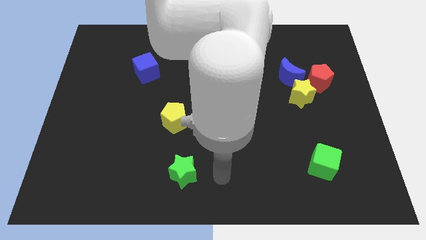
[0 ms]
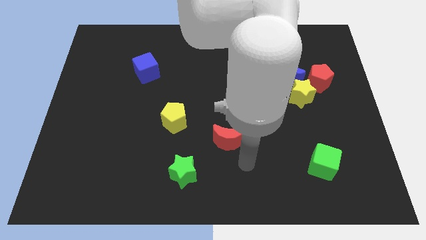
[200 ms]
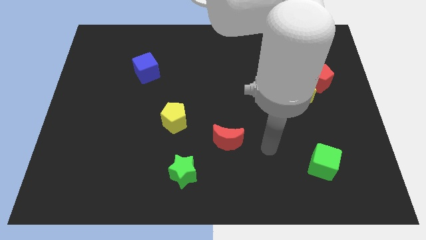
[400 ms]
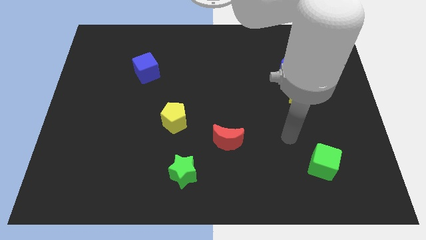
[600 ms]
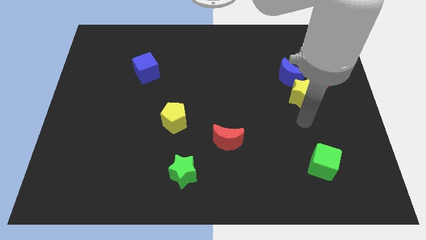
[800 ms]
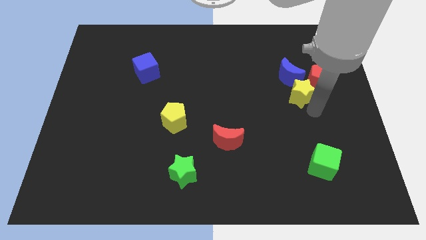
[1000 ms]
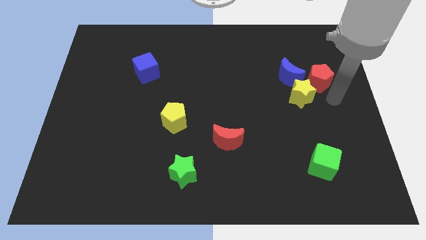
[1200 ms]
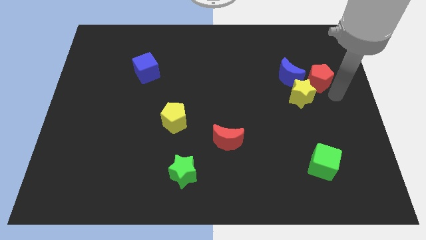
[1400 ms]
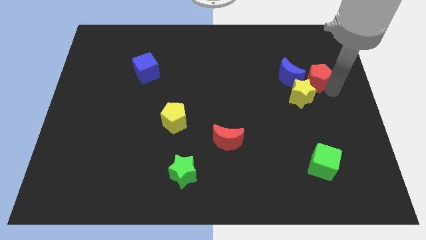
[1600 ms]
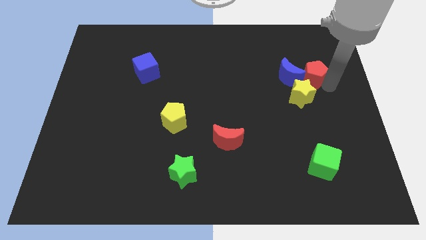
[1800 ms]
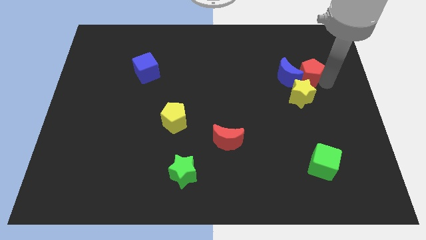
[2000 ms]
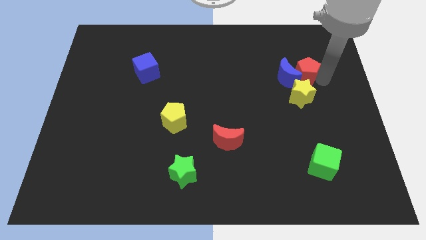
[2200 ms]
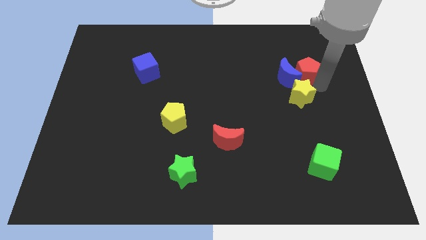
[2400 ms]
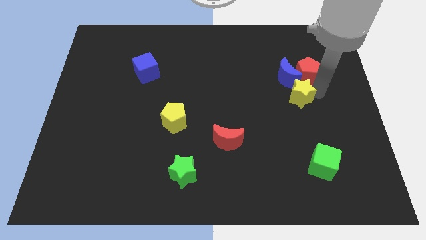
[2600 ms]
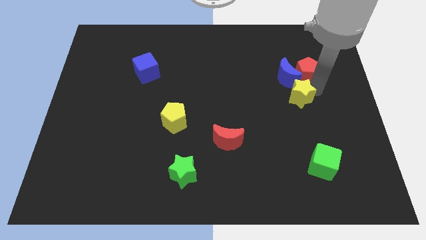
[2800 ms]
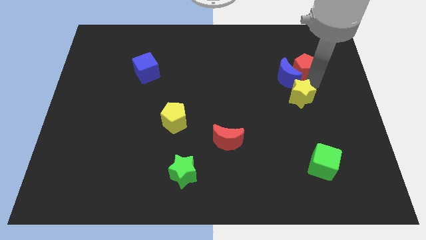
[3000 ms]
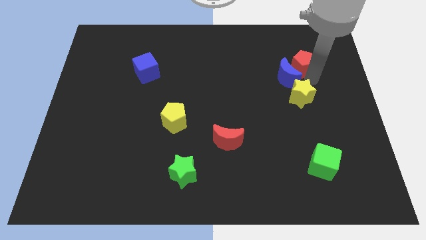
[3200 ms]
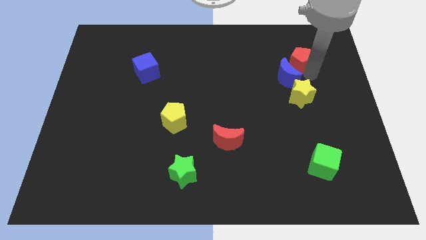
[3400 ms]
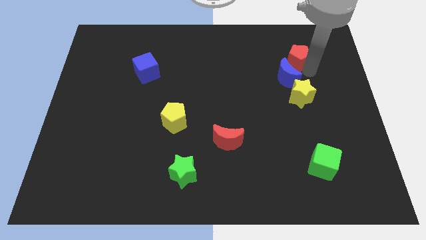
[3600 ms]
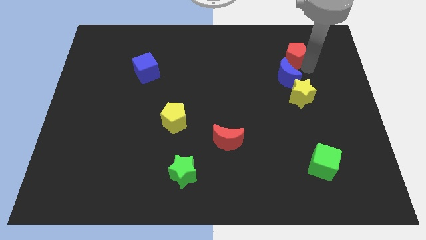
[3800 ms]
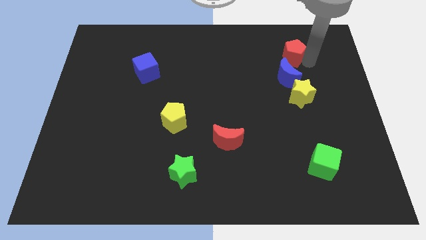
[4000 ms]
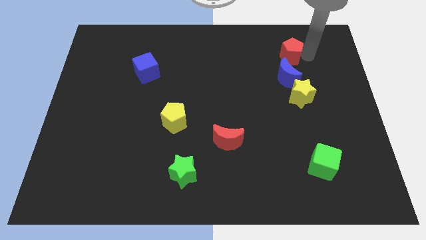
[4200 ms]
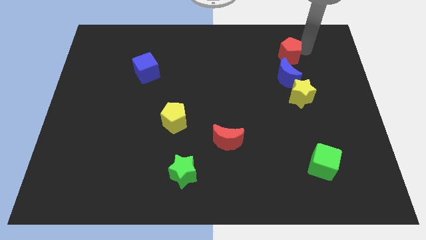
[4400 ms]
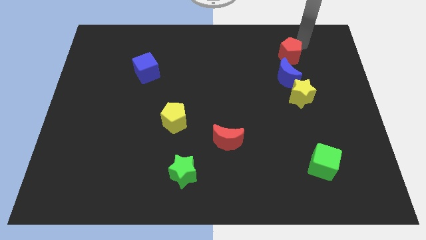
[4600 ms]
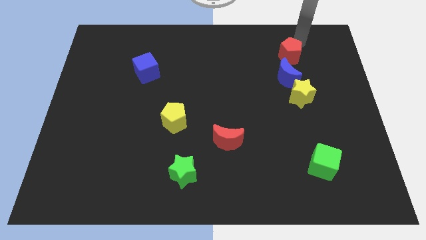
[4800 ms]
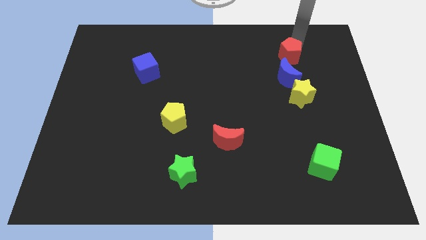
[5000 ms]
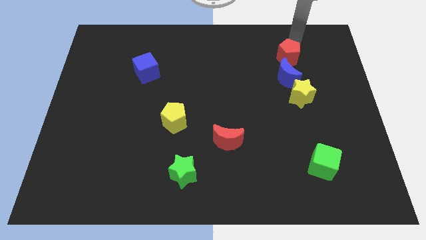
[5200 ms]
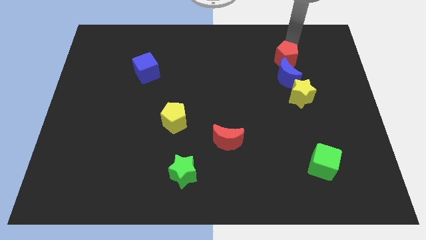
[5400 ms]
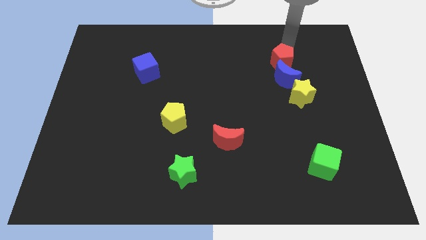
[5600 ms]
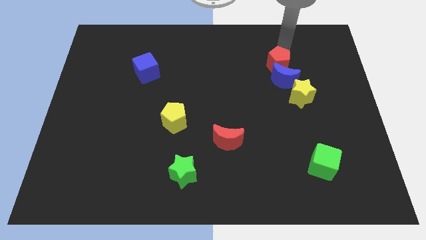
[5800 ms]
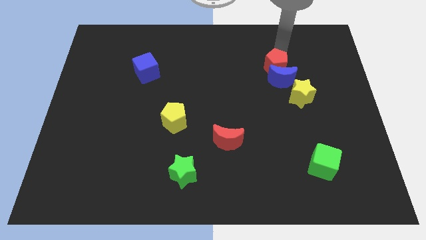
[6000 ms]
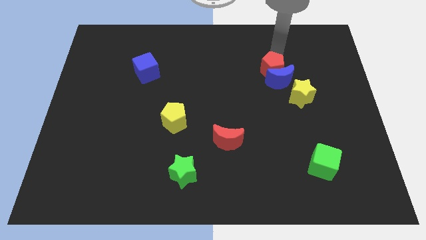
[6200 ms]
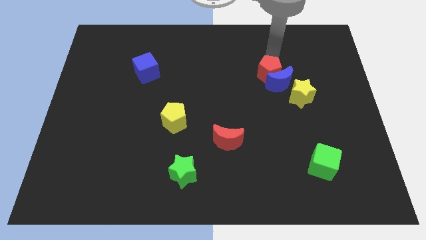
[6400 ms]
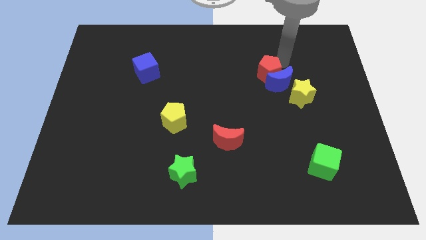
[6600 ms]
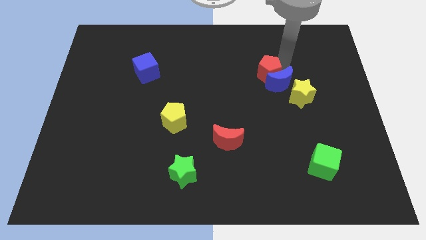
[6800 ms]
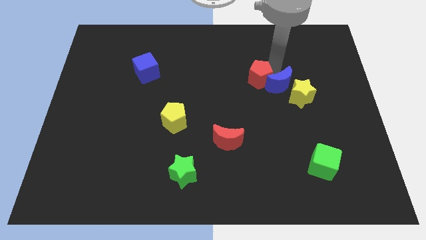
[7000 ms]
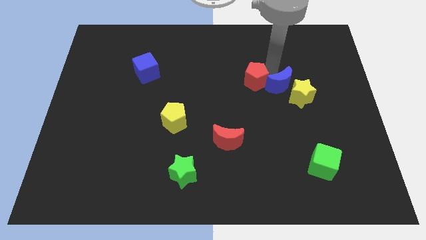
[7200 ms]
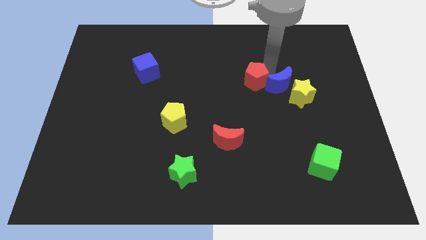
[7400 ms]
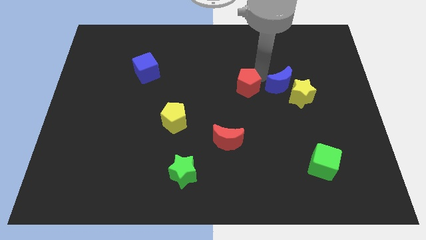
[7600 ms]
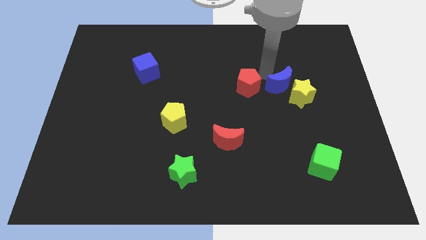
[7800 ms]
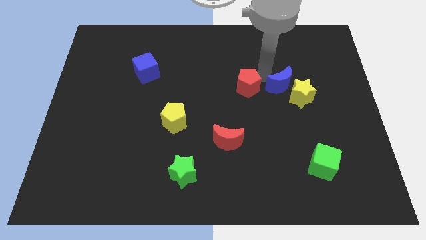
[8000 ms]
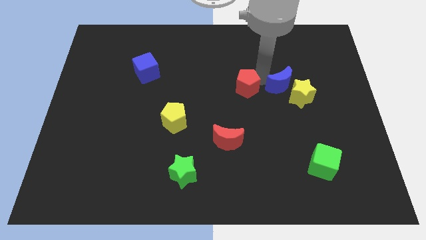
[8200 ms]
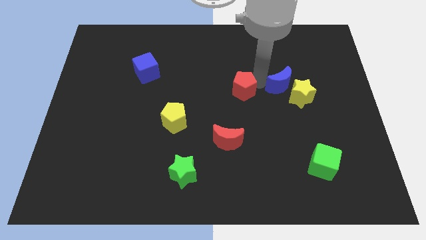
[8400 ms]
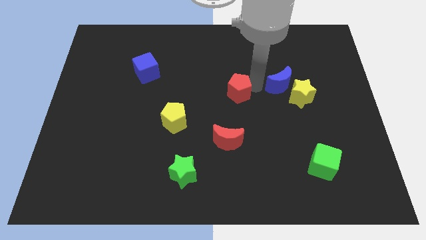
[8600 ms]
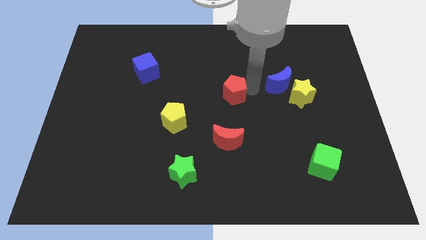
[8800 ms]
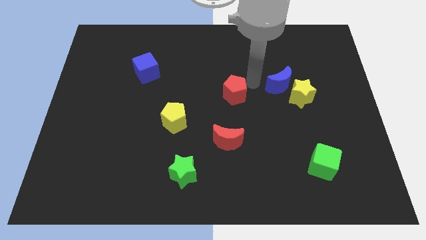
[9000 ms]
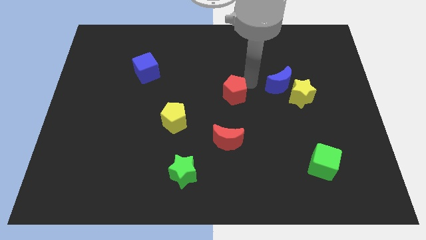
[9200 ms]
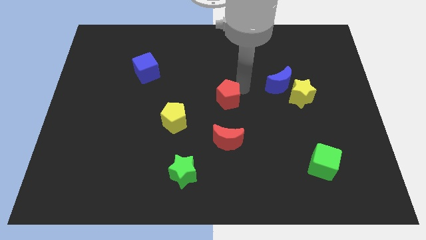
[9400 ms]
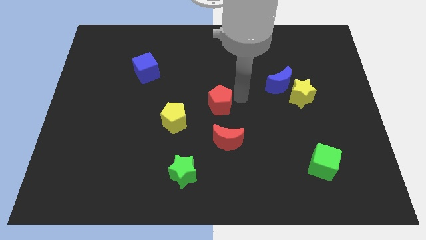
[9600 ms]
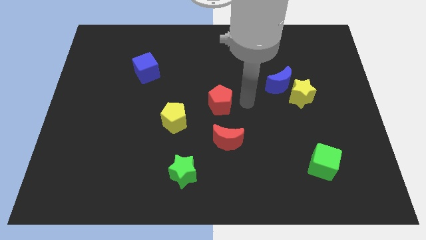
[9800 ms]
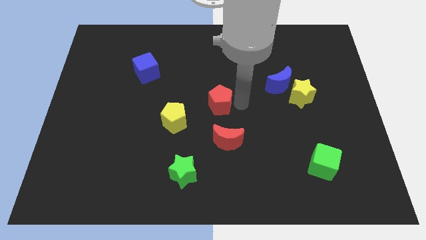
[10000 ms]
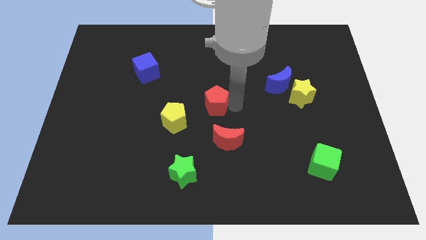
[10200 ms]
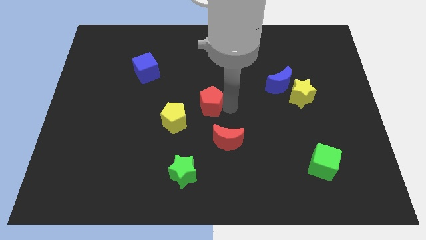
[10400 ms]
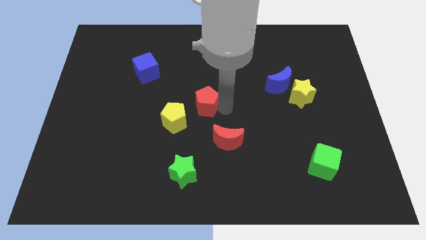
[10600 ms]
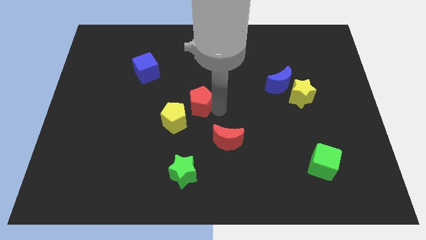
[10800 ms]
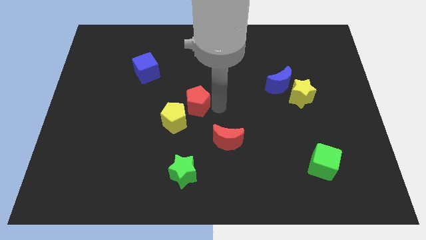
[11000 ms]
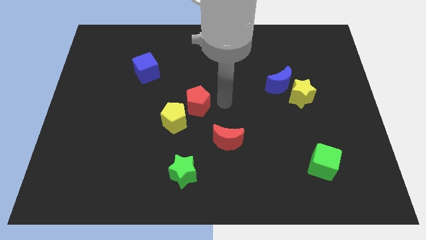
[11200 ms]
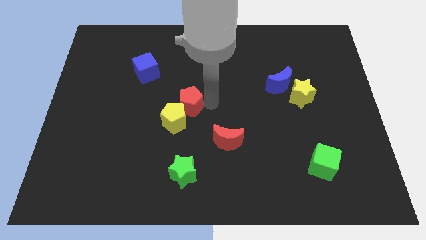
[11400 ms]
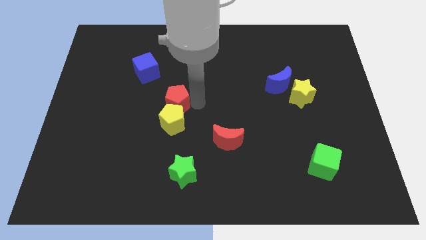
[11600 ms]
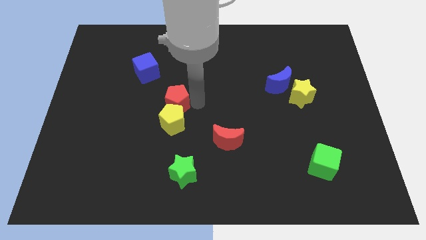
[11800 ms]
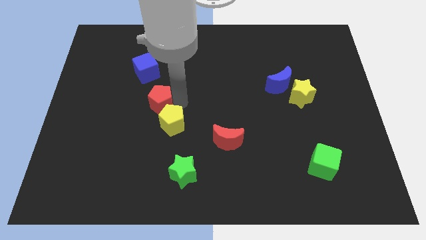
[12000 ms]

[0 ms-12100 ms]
slide the red pentagon to the bottom side of the blue cube
